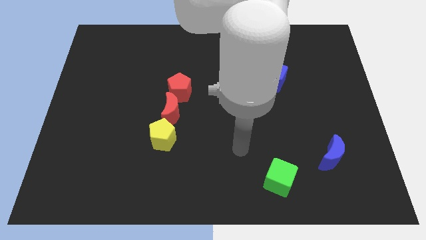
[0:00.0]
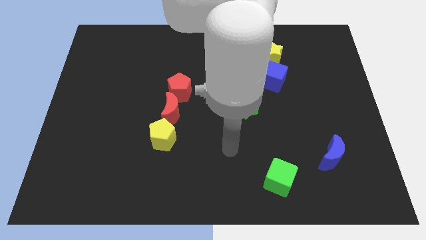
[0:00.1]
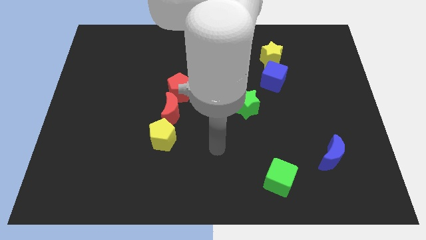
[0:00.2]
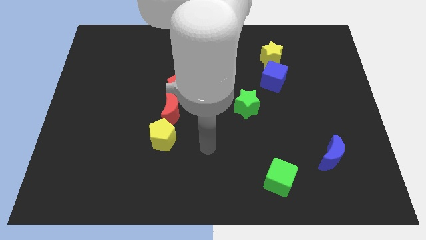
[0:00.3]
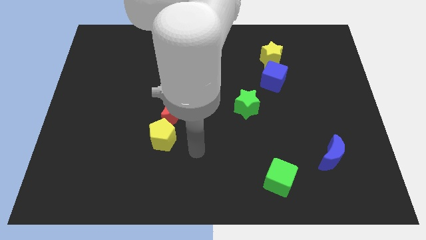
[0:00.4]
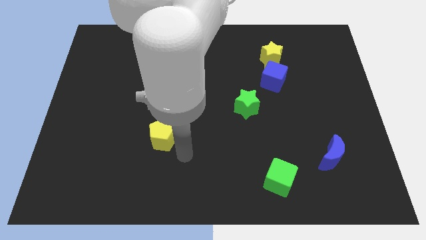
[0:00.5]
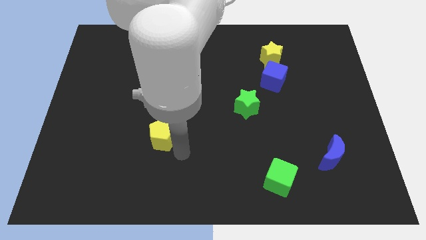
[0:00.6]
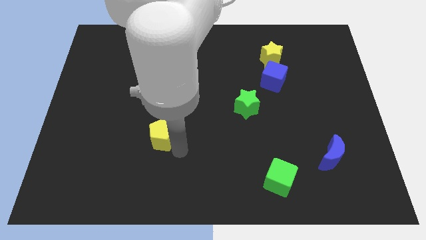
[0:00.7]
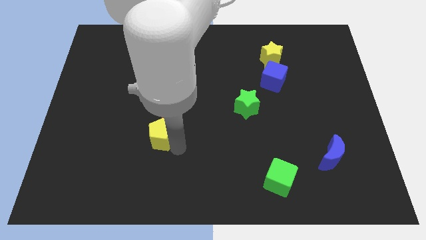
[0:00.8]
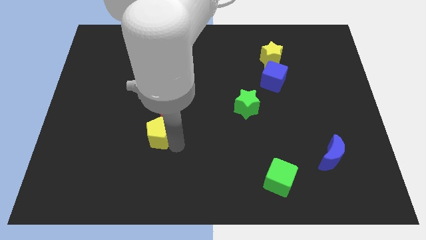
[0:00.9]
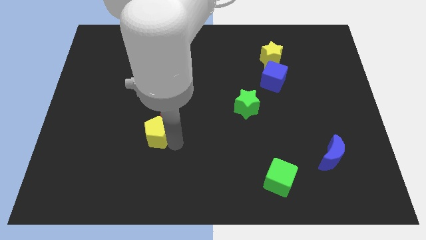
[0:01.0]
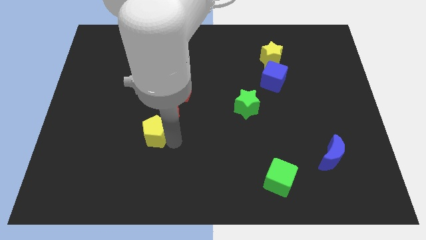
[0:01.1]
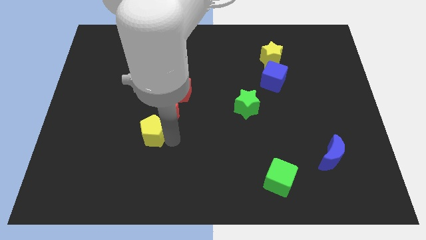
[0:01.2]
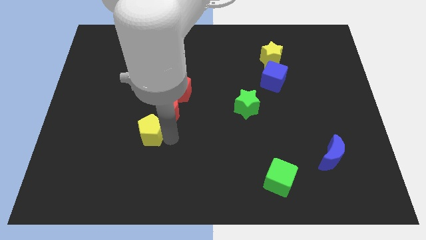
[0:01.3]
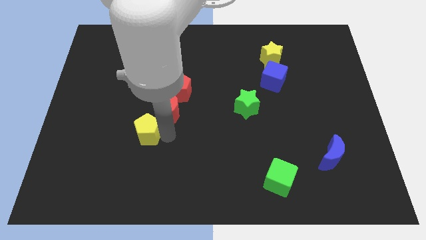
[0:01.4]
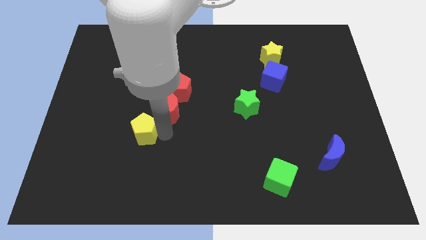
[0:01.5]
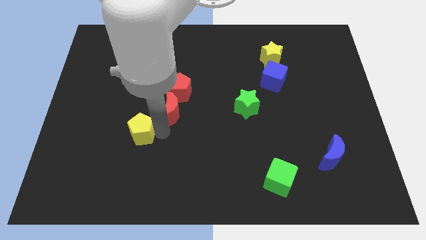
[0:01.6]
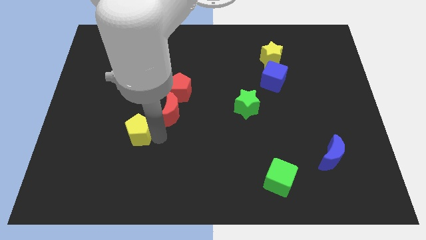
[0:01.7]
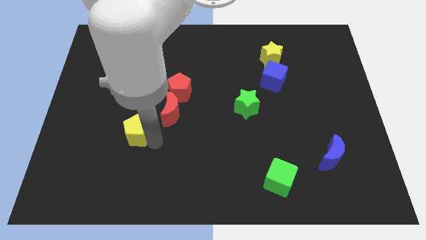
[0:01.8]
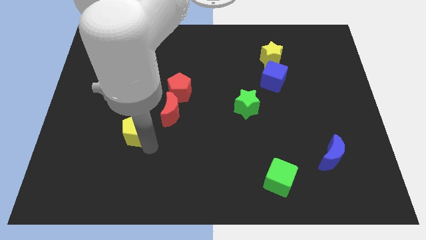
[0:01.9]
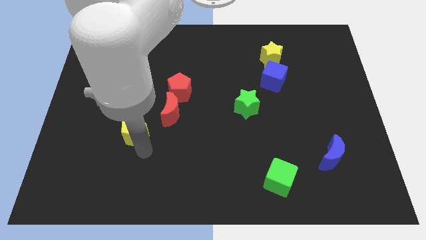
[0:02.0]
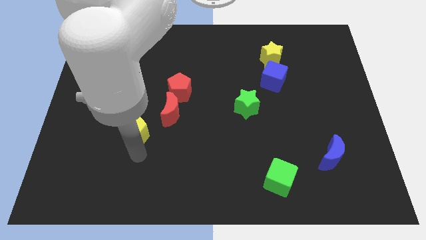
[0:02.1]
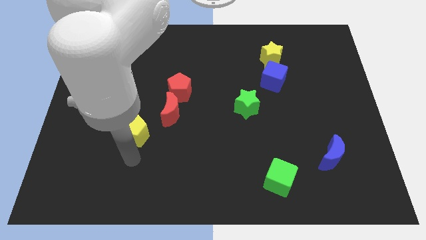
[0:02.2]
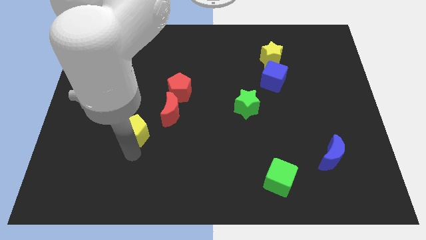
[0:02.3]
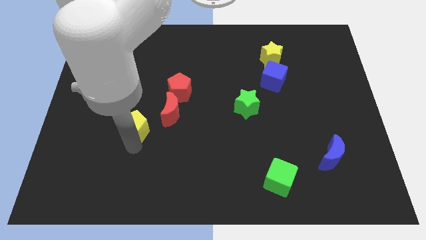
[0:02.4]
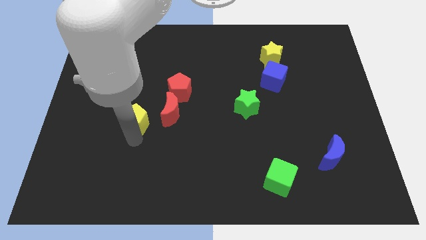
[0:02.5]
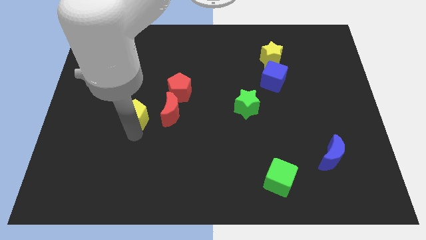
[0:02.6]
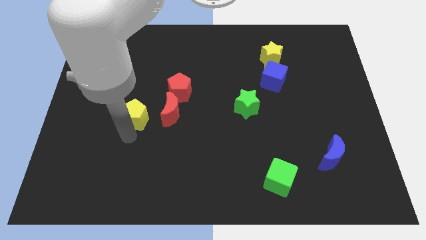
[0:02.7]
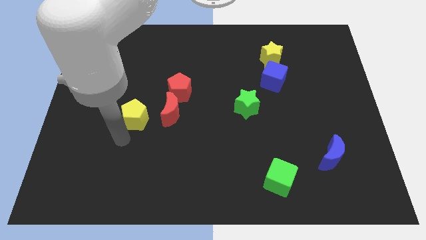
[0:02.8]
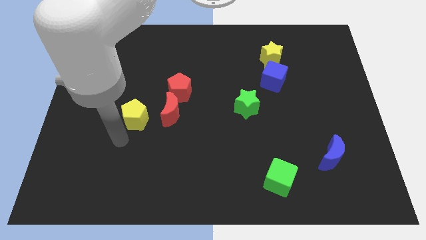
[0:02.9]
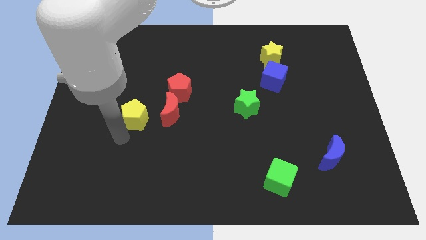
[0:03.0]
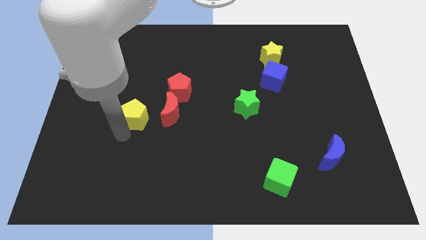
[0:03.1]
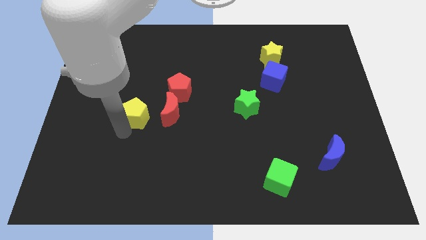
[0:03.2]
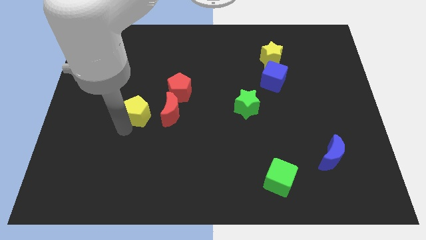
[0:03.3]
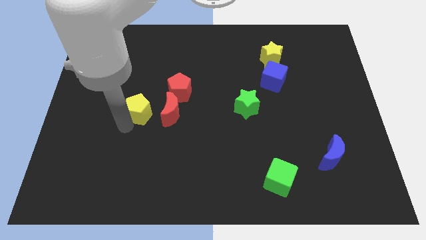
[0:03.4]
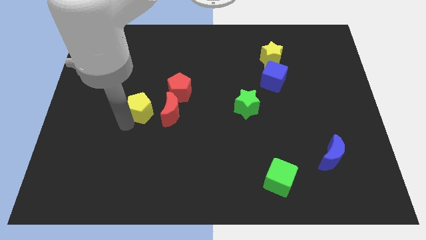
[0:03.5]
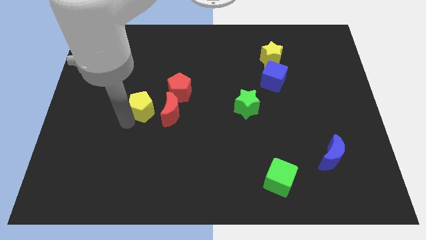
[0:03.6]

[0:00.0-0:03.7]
slightly move the yellow pentagon upwards

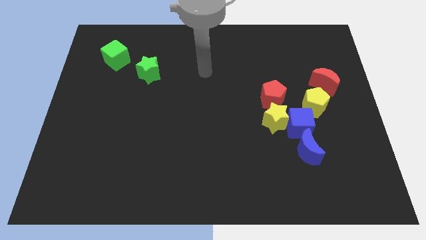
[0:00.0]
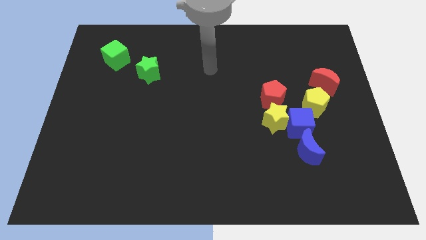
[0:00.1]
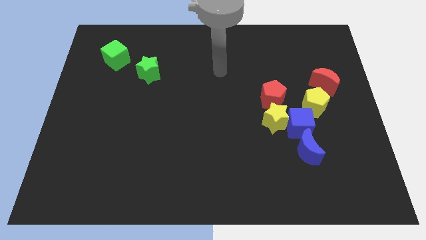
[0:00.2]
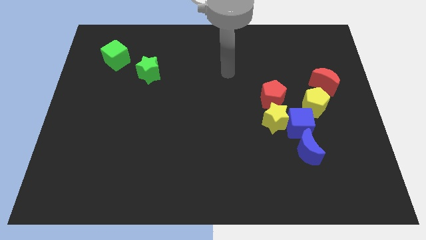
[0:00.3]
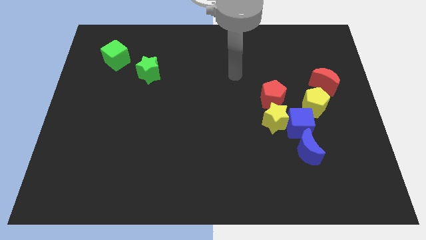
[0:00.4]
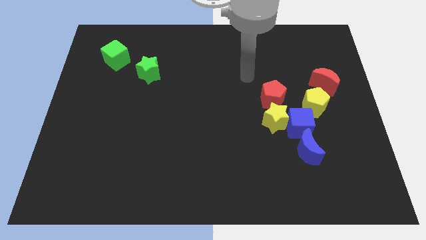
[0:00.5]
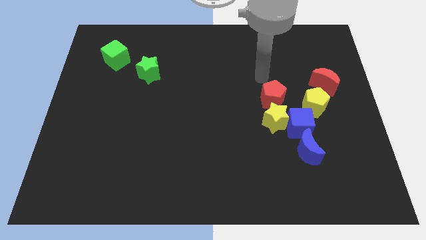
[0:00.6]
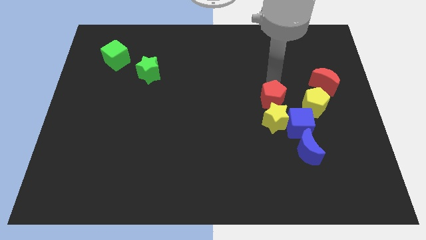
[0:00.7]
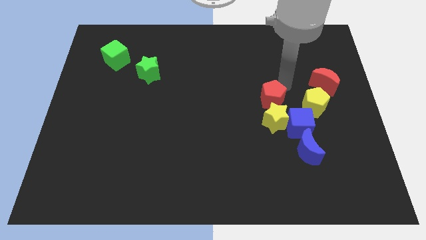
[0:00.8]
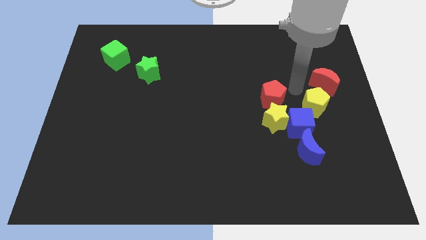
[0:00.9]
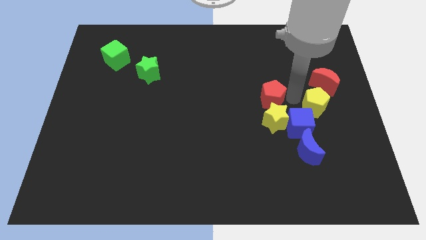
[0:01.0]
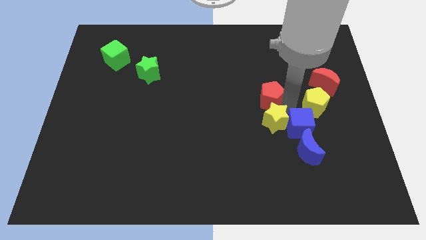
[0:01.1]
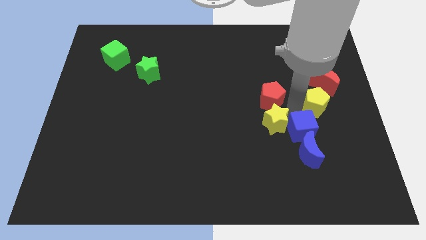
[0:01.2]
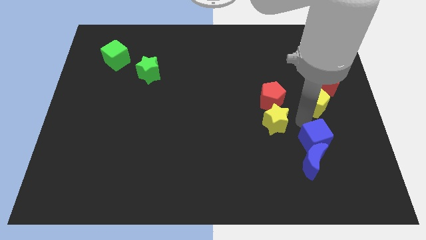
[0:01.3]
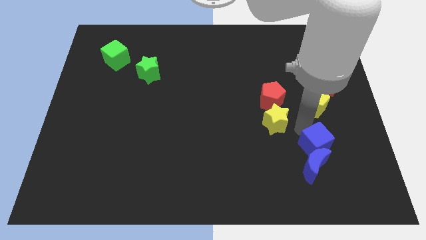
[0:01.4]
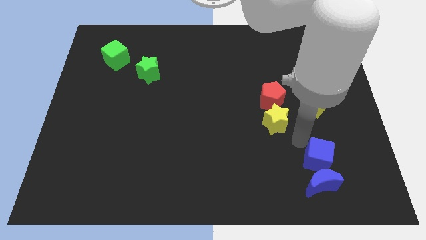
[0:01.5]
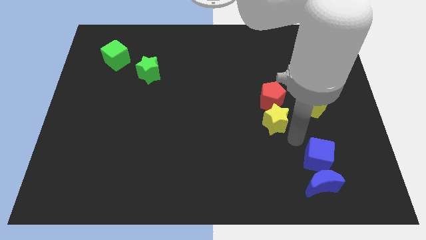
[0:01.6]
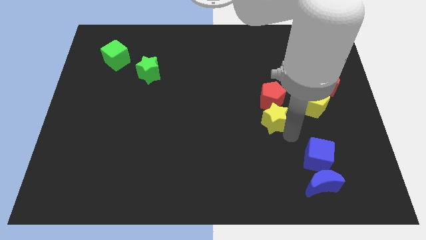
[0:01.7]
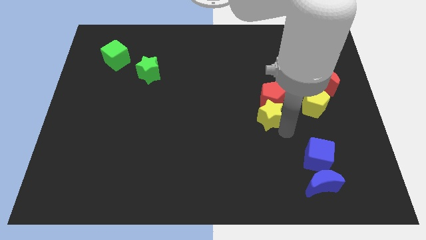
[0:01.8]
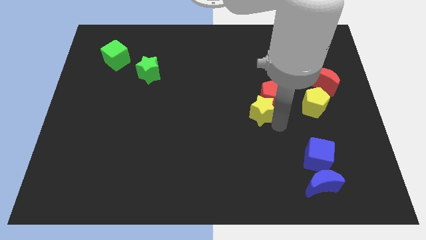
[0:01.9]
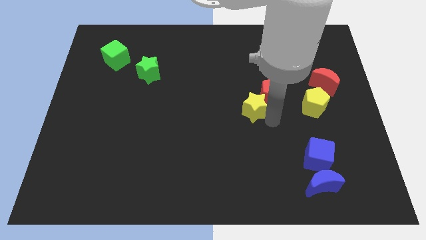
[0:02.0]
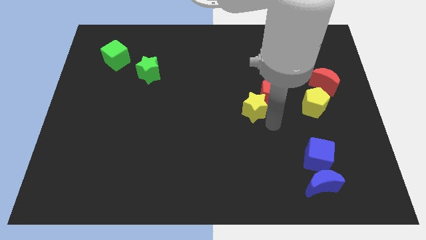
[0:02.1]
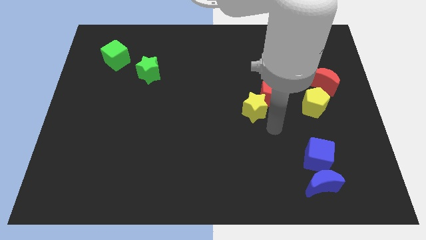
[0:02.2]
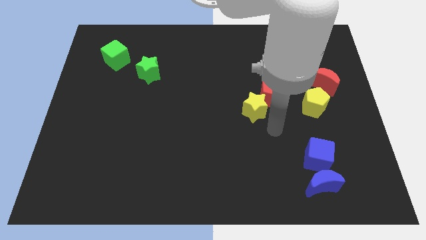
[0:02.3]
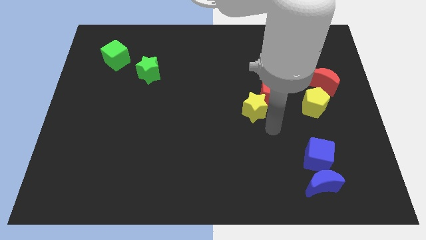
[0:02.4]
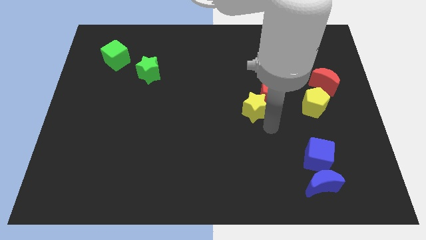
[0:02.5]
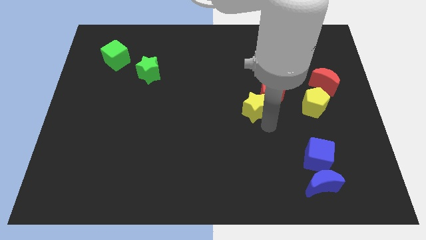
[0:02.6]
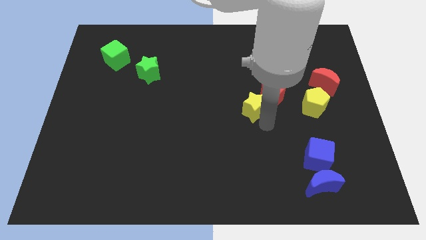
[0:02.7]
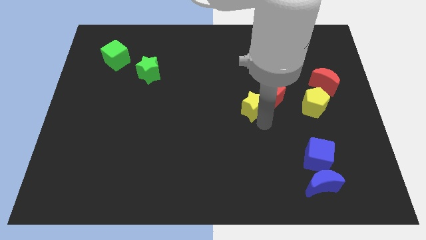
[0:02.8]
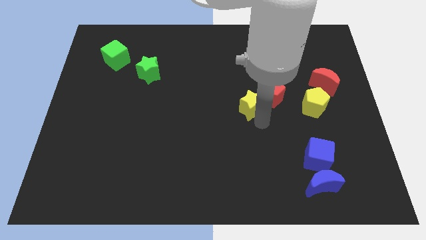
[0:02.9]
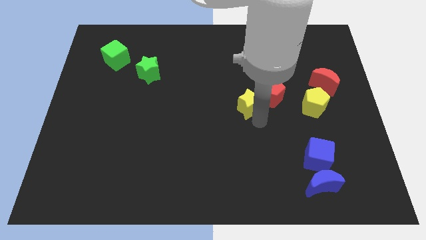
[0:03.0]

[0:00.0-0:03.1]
push the yellow star a bit diagonally upwards and to the left

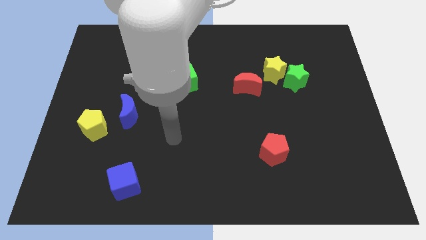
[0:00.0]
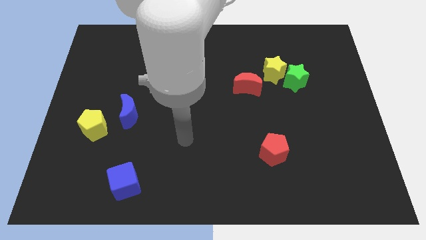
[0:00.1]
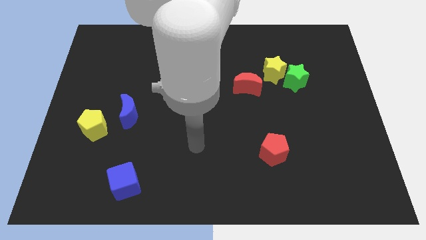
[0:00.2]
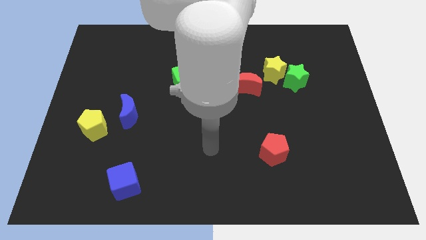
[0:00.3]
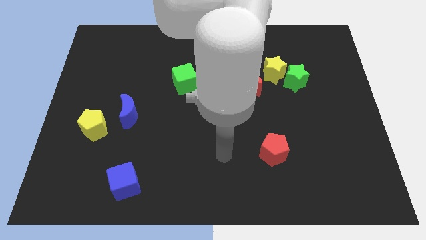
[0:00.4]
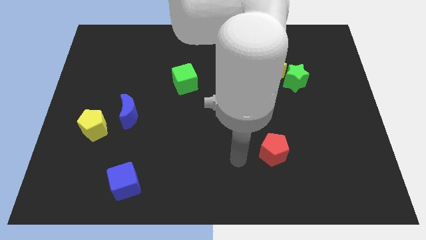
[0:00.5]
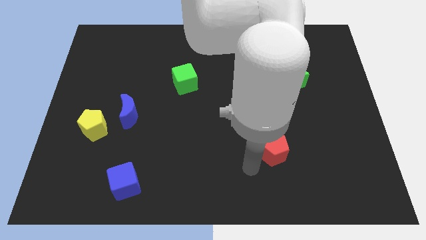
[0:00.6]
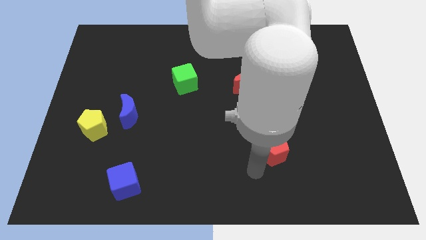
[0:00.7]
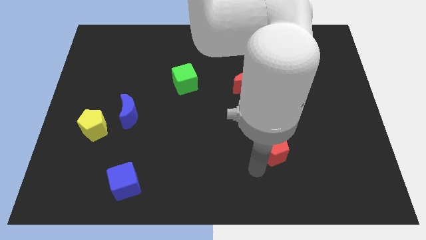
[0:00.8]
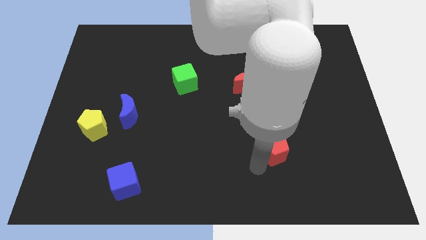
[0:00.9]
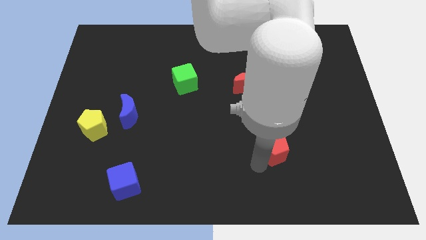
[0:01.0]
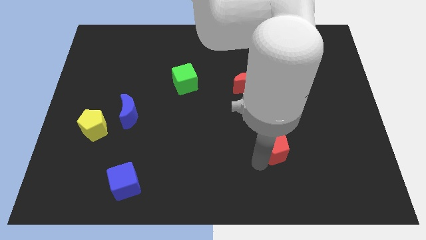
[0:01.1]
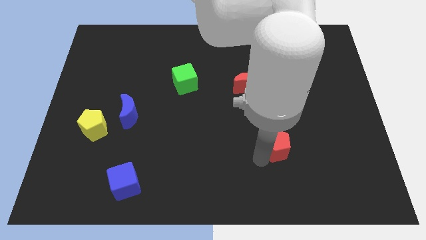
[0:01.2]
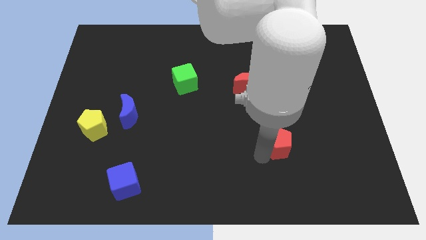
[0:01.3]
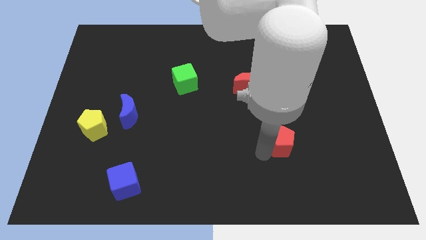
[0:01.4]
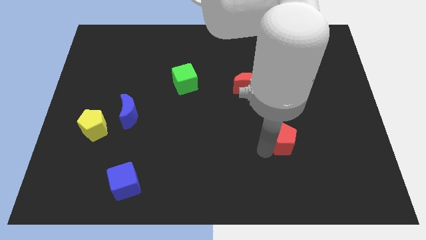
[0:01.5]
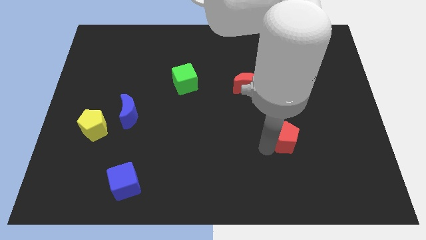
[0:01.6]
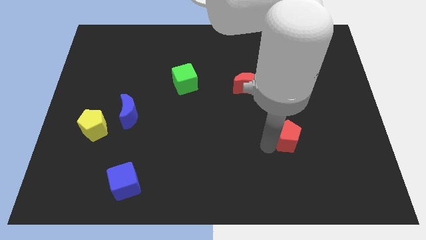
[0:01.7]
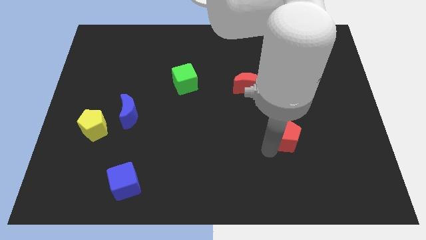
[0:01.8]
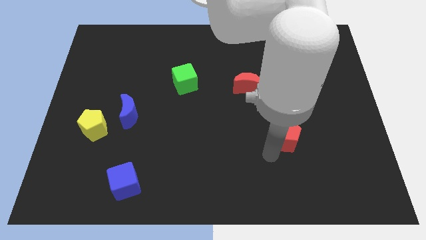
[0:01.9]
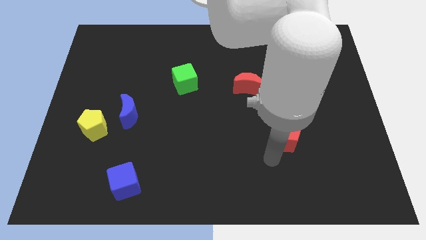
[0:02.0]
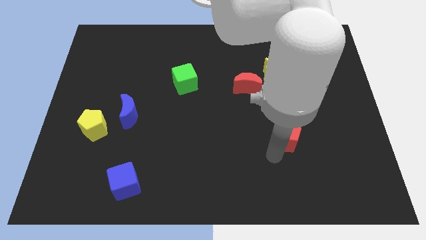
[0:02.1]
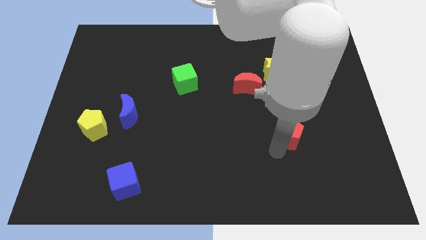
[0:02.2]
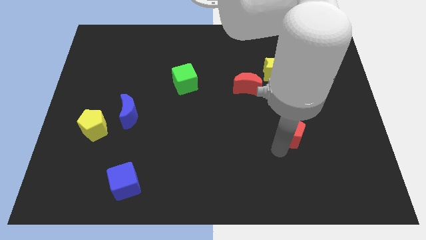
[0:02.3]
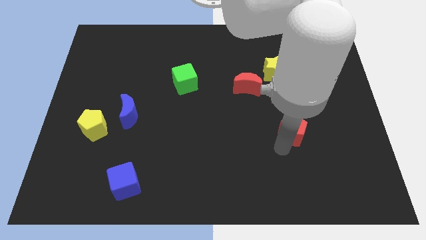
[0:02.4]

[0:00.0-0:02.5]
slide the red pentagon a little up and right diagonally
